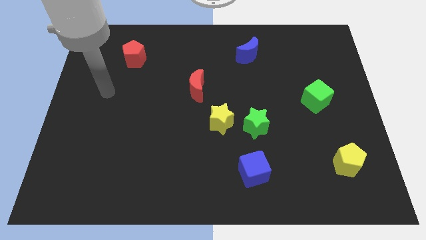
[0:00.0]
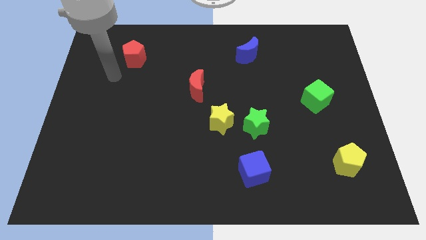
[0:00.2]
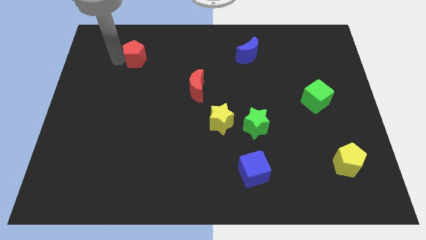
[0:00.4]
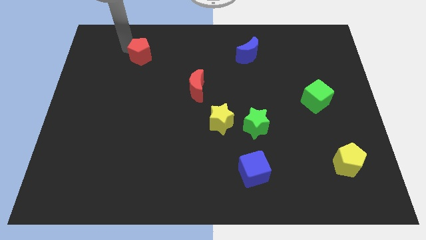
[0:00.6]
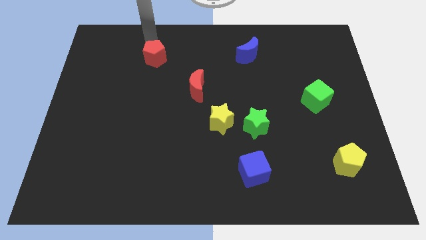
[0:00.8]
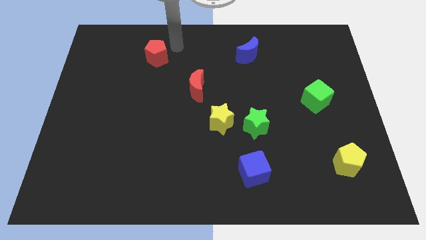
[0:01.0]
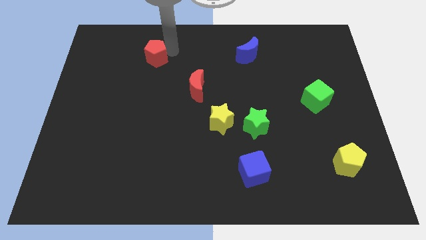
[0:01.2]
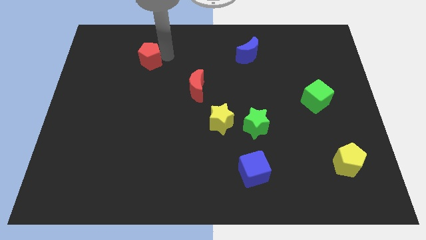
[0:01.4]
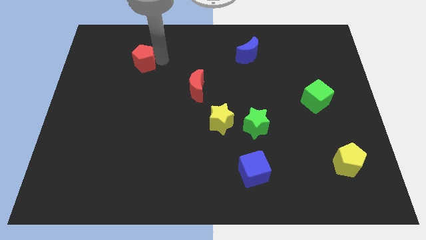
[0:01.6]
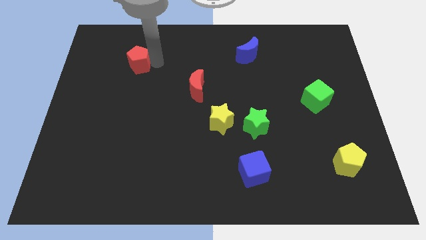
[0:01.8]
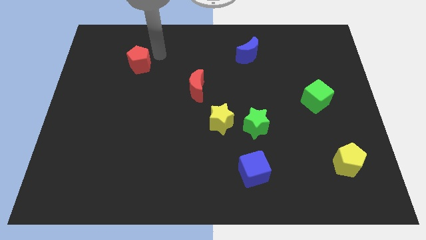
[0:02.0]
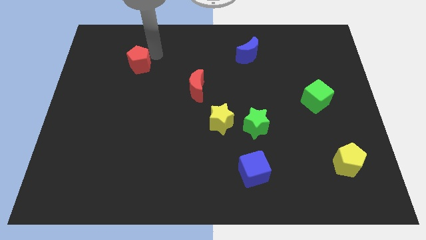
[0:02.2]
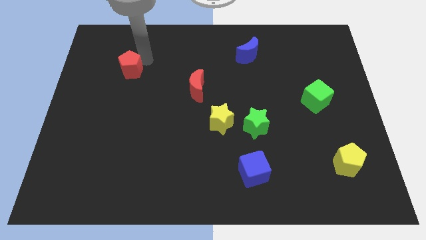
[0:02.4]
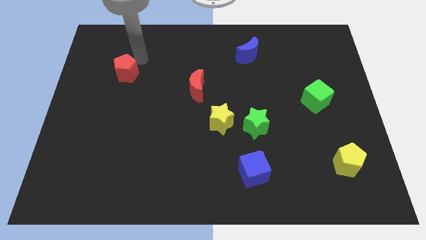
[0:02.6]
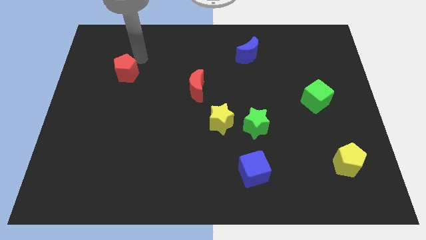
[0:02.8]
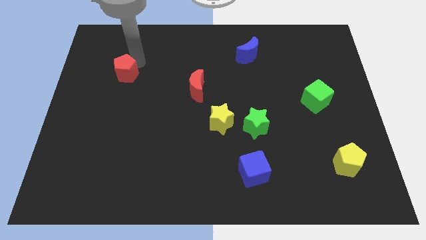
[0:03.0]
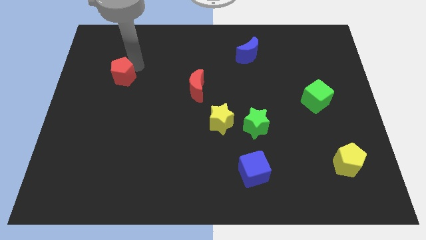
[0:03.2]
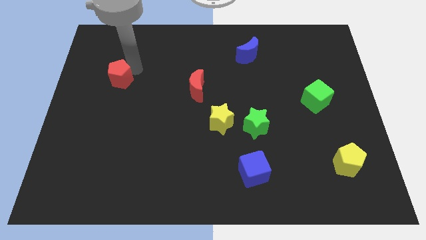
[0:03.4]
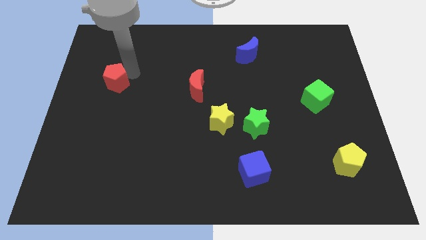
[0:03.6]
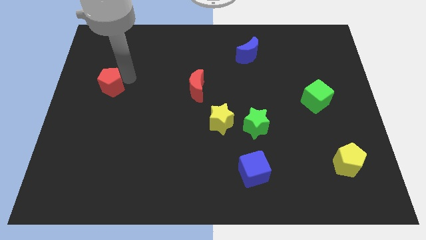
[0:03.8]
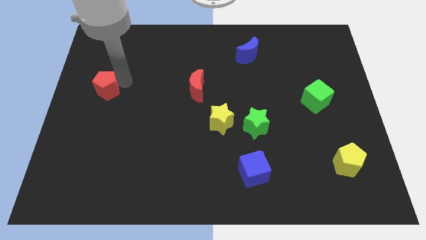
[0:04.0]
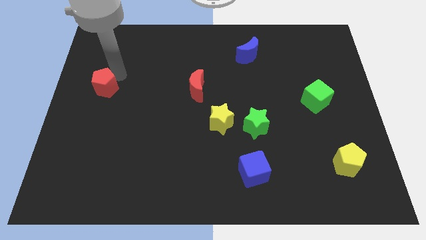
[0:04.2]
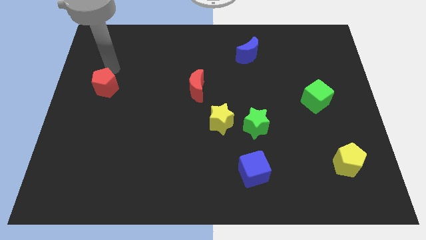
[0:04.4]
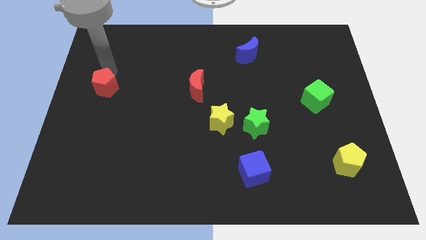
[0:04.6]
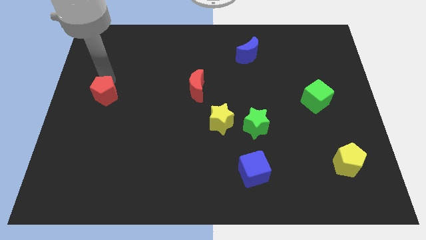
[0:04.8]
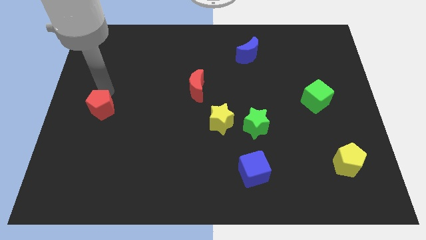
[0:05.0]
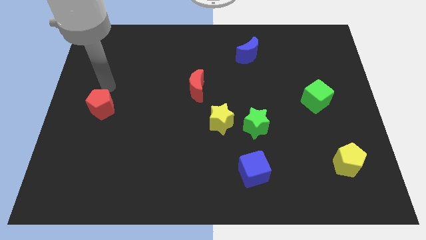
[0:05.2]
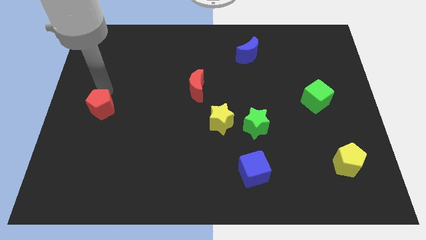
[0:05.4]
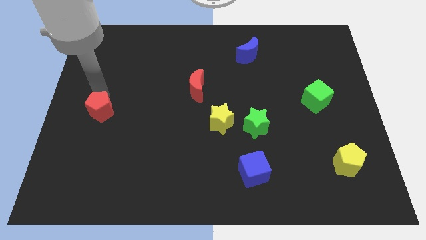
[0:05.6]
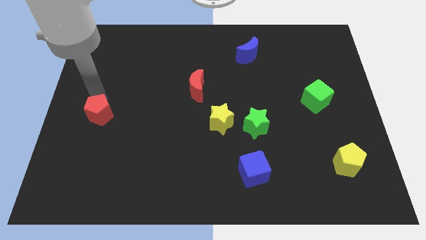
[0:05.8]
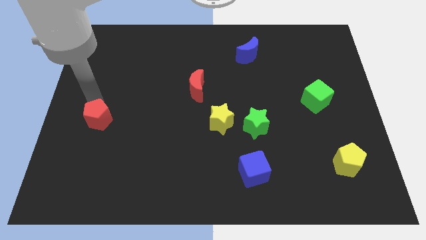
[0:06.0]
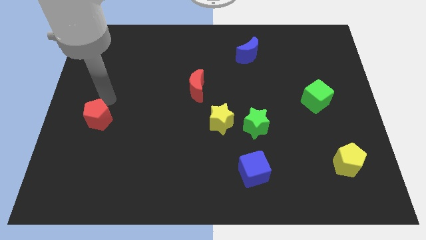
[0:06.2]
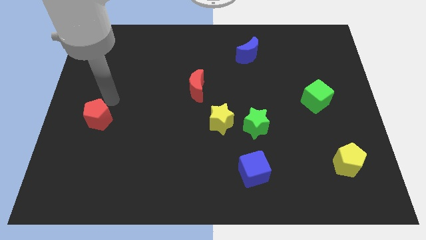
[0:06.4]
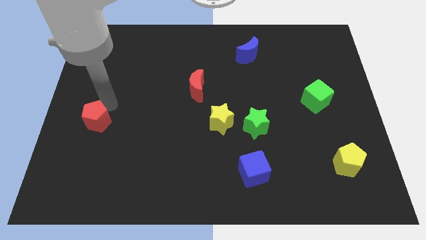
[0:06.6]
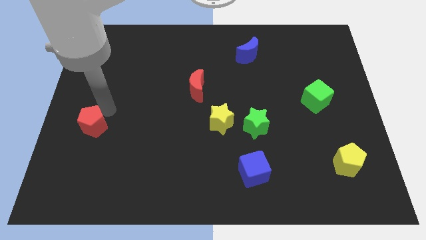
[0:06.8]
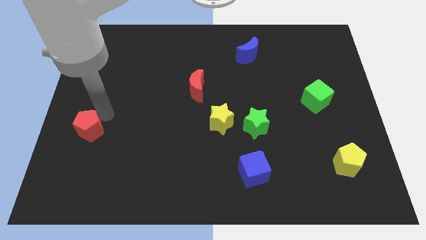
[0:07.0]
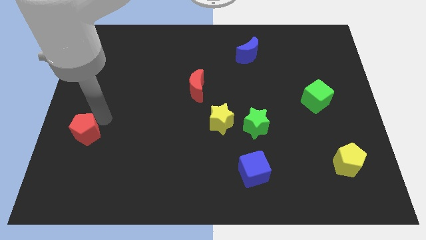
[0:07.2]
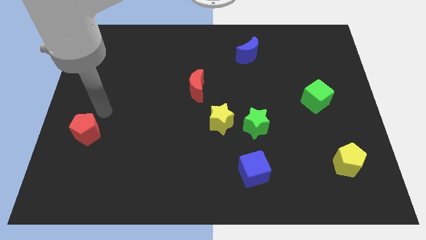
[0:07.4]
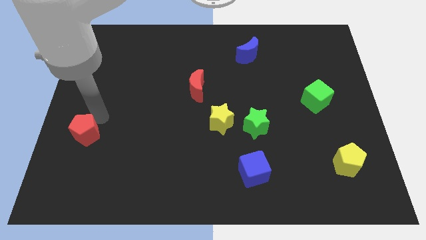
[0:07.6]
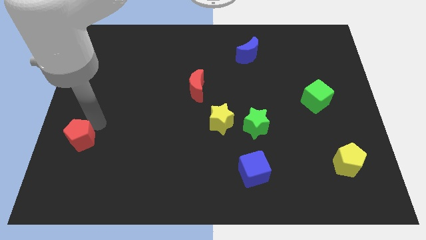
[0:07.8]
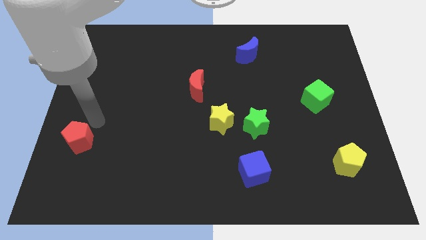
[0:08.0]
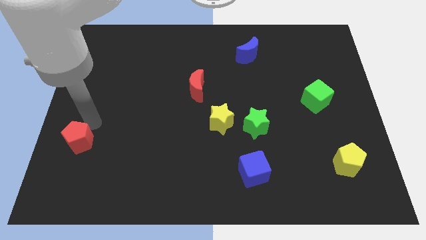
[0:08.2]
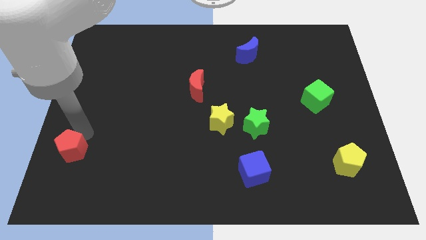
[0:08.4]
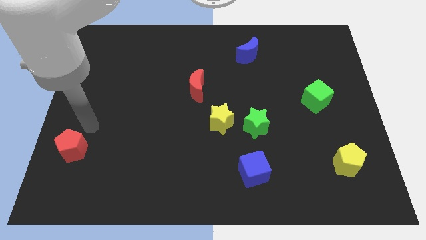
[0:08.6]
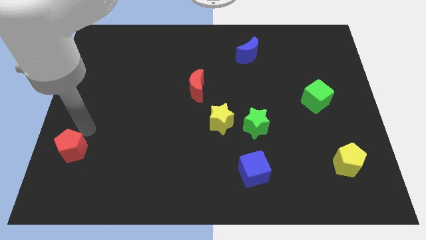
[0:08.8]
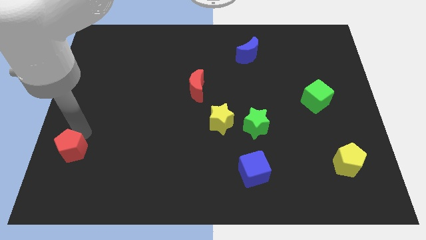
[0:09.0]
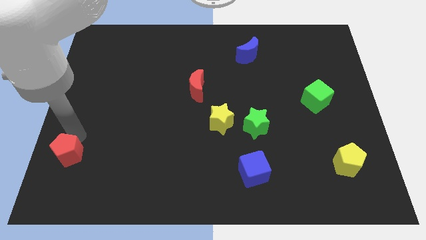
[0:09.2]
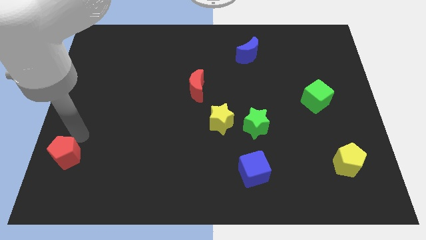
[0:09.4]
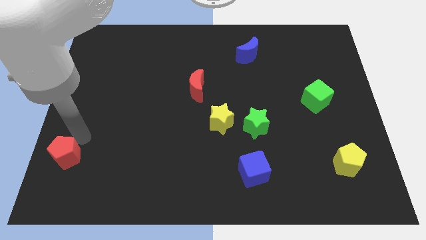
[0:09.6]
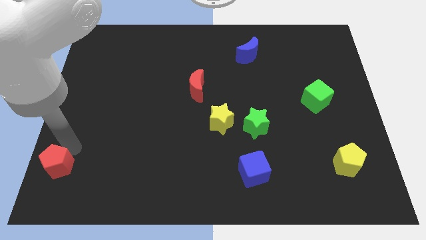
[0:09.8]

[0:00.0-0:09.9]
put the red pentagon to the lower left corner

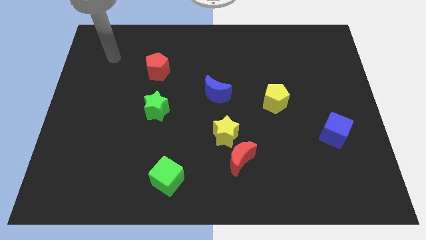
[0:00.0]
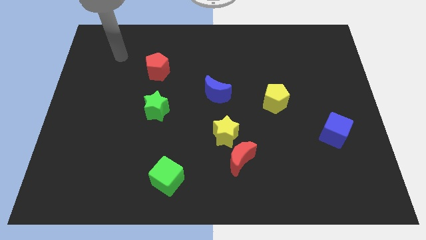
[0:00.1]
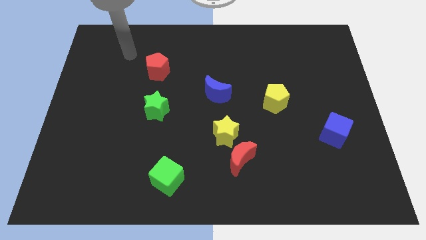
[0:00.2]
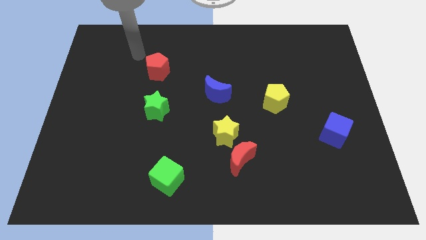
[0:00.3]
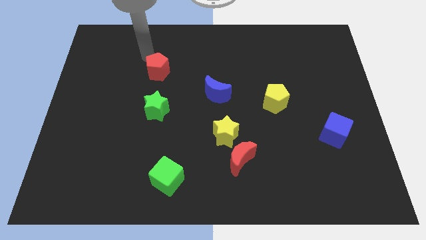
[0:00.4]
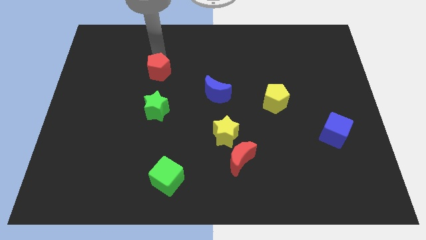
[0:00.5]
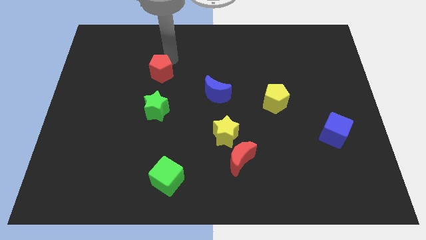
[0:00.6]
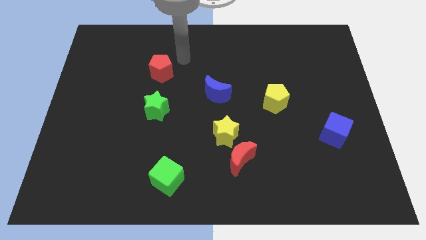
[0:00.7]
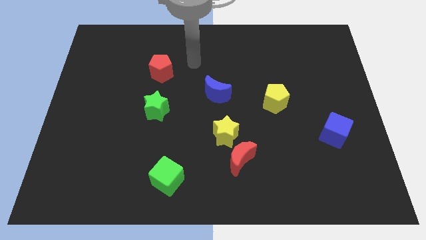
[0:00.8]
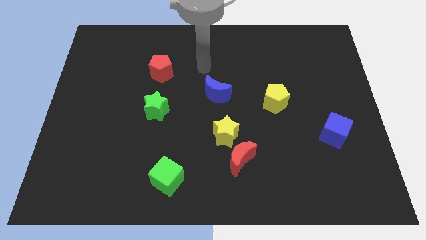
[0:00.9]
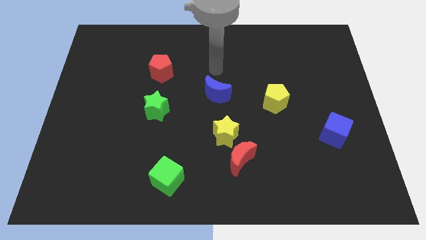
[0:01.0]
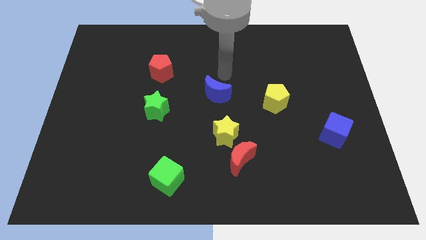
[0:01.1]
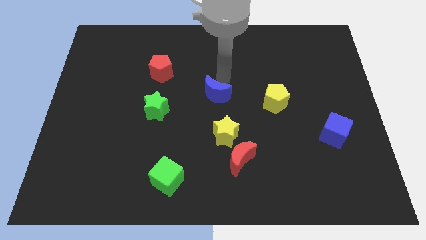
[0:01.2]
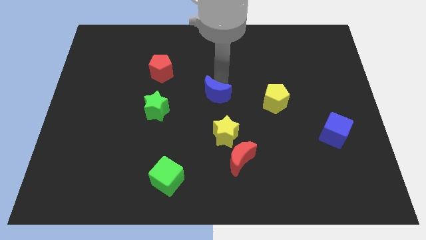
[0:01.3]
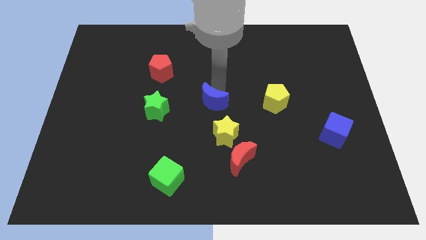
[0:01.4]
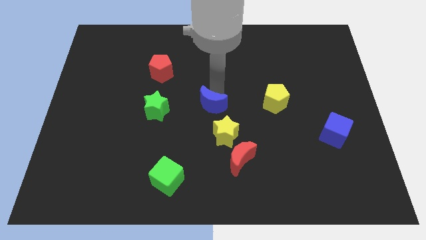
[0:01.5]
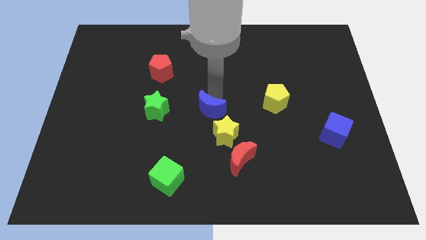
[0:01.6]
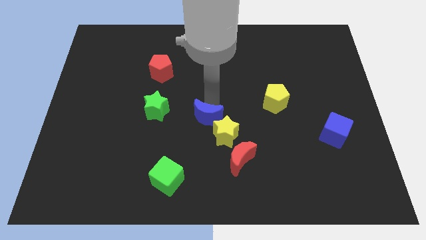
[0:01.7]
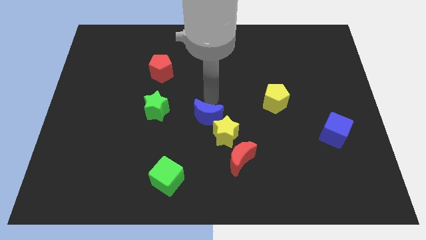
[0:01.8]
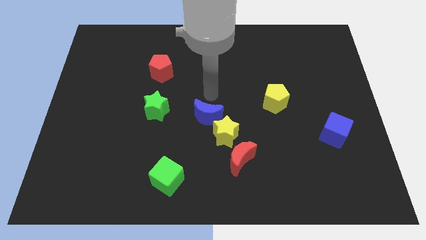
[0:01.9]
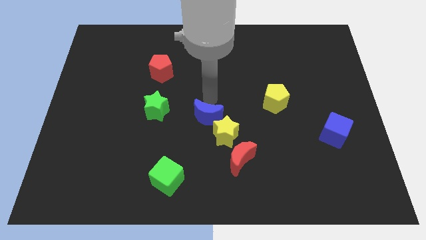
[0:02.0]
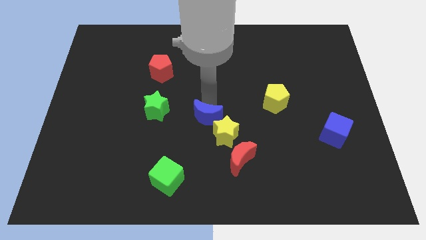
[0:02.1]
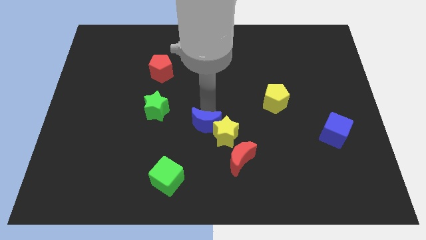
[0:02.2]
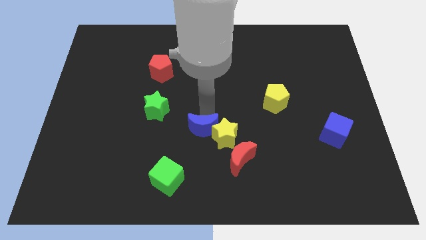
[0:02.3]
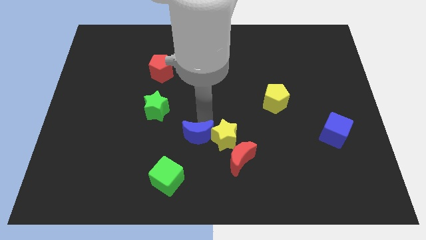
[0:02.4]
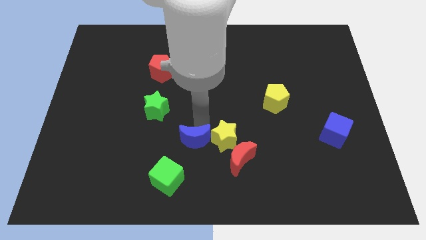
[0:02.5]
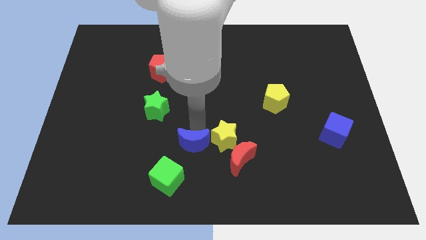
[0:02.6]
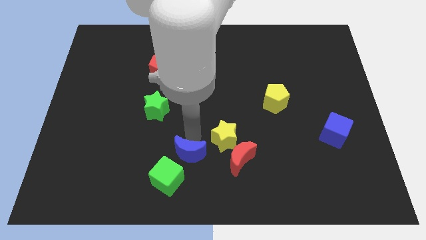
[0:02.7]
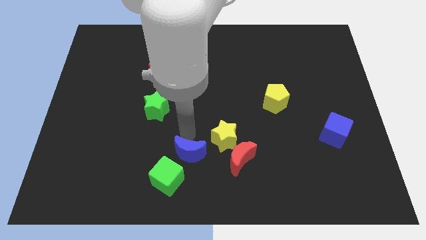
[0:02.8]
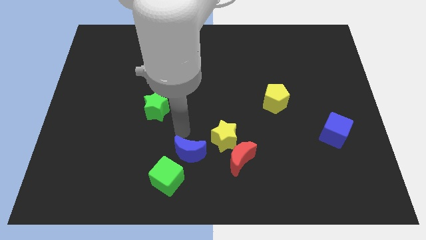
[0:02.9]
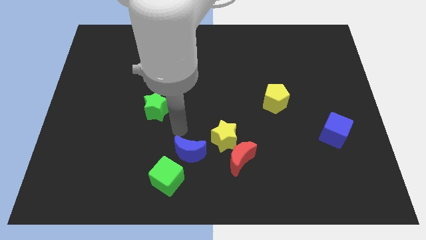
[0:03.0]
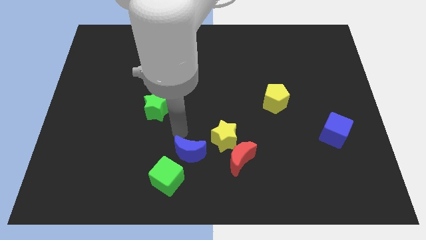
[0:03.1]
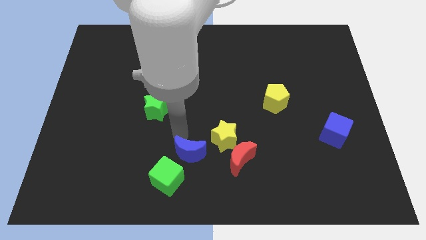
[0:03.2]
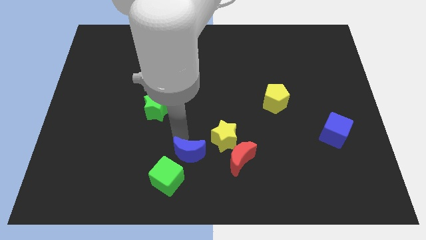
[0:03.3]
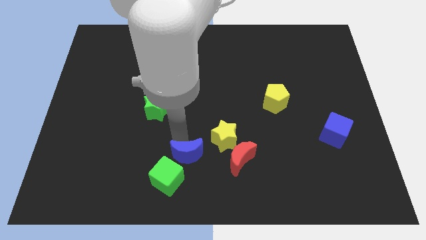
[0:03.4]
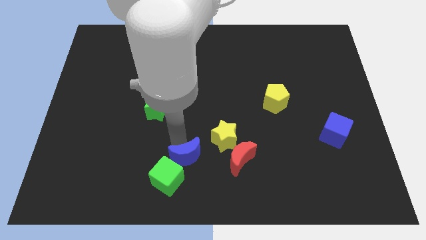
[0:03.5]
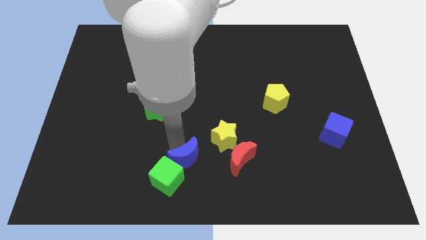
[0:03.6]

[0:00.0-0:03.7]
push the blue moon to the bottom side
